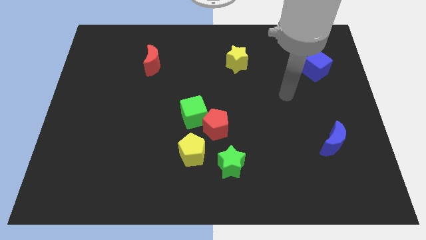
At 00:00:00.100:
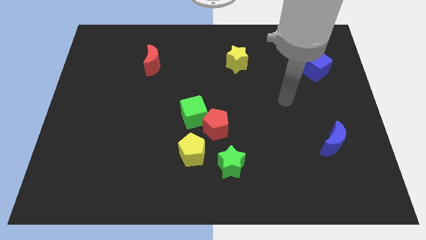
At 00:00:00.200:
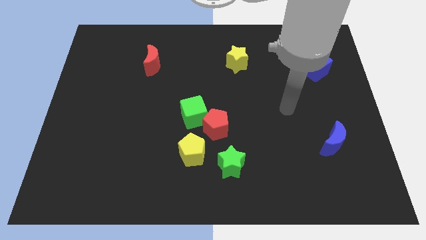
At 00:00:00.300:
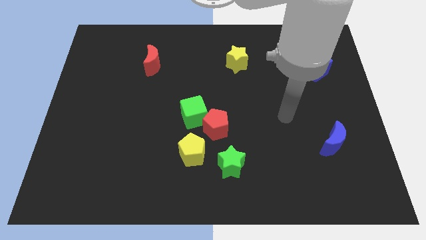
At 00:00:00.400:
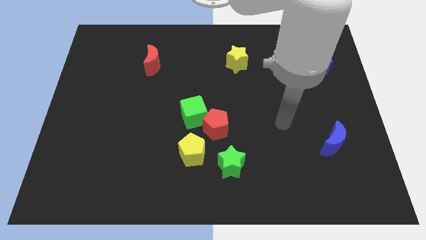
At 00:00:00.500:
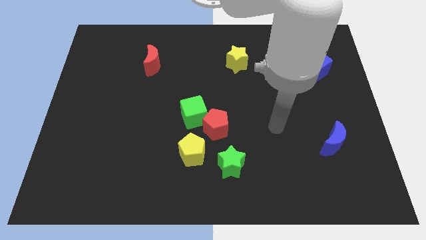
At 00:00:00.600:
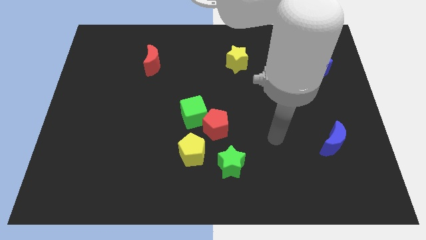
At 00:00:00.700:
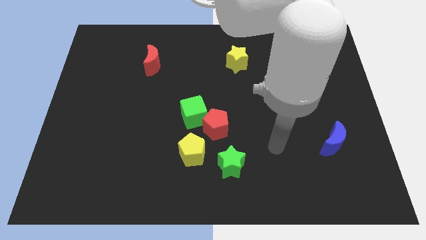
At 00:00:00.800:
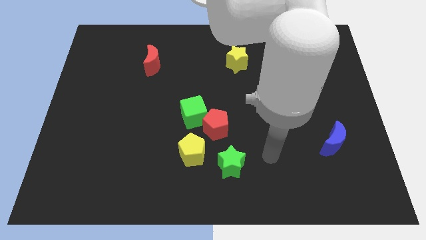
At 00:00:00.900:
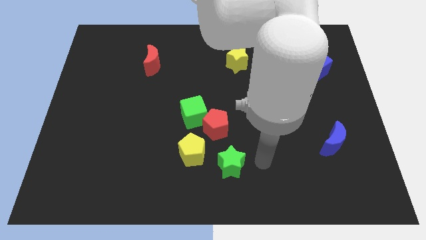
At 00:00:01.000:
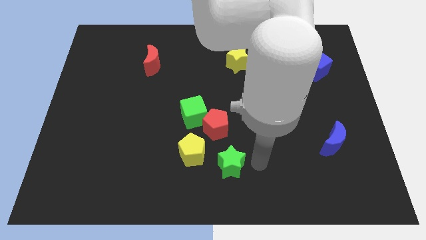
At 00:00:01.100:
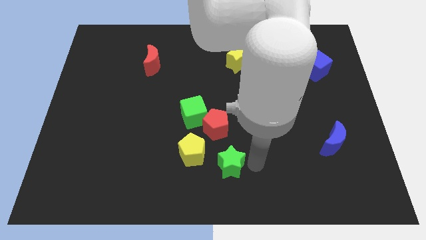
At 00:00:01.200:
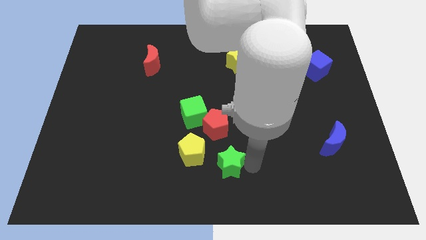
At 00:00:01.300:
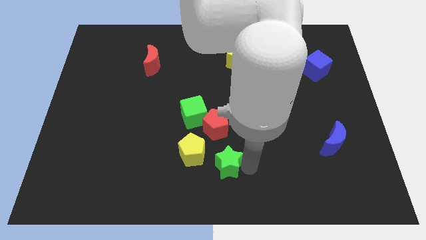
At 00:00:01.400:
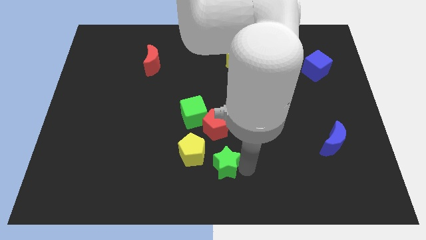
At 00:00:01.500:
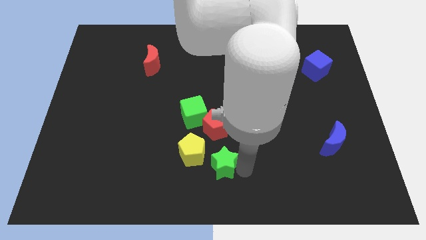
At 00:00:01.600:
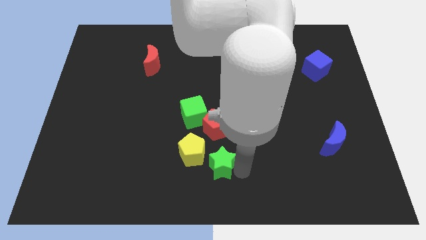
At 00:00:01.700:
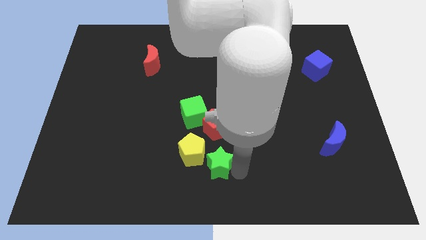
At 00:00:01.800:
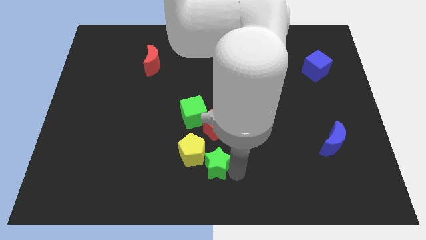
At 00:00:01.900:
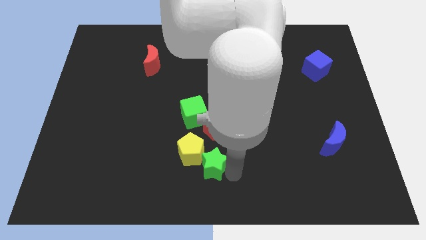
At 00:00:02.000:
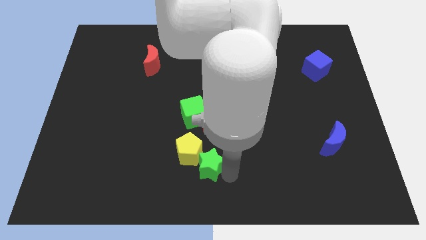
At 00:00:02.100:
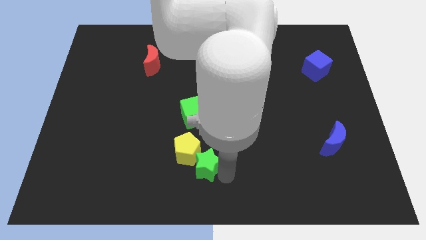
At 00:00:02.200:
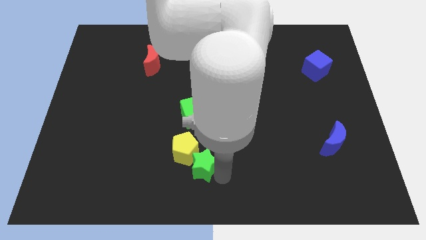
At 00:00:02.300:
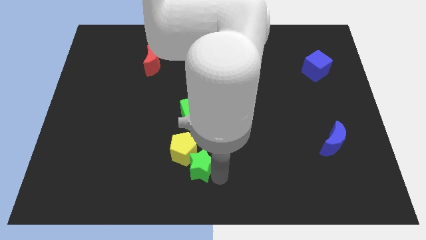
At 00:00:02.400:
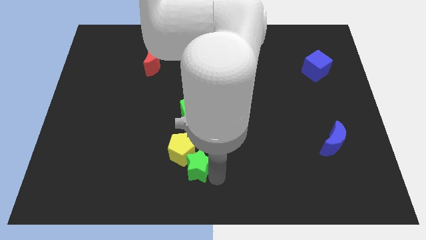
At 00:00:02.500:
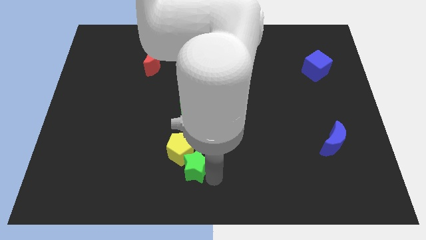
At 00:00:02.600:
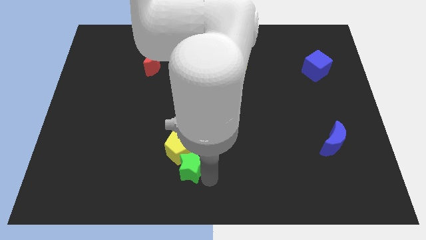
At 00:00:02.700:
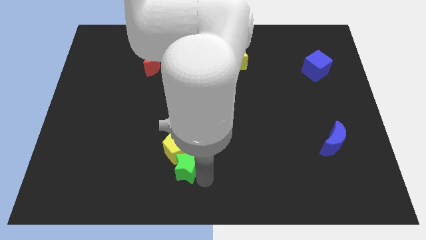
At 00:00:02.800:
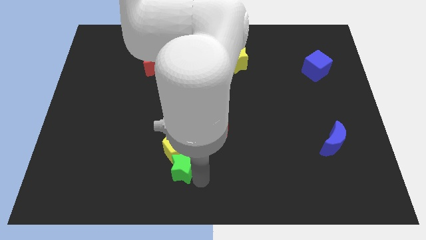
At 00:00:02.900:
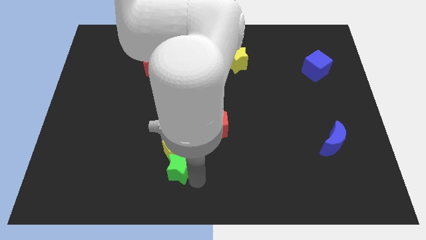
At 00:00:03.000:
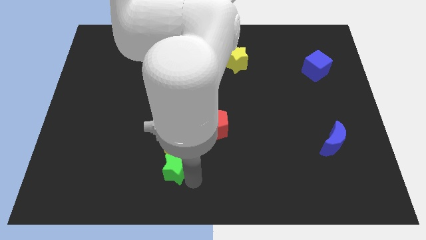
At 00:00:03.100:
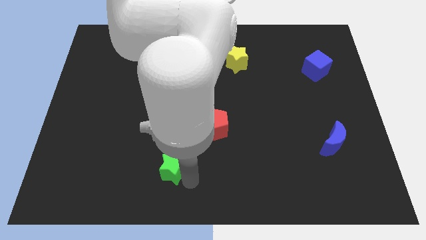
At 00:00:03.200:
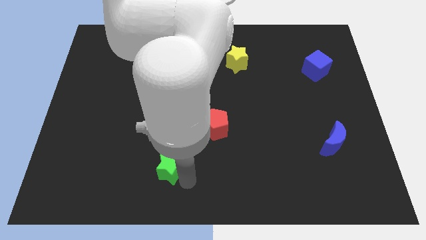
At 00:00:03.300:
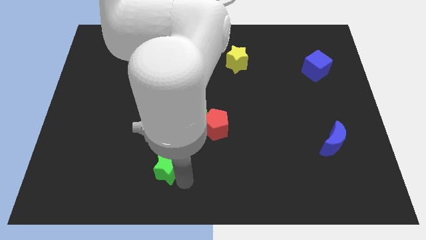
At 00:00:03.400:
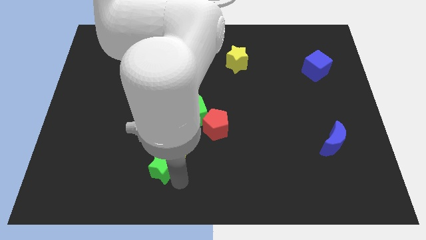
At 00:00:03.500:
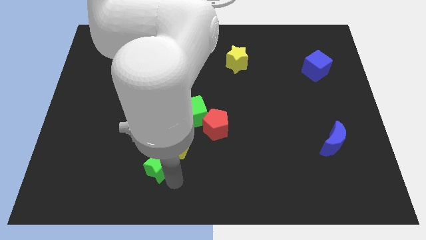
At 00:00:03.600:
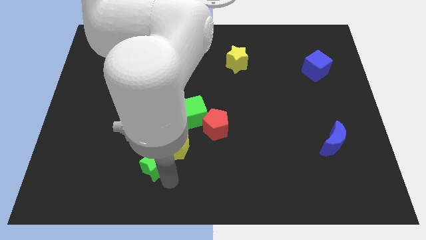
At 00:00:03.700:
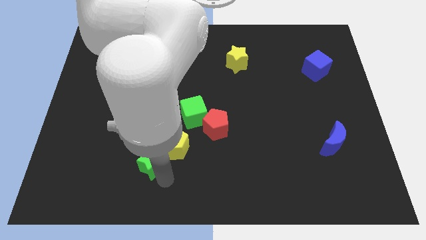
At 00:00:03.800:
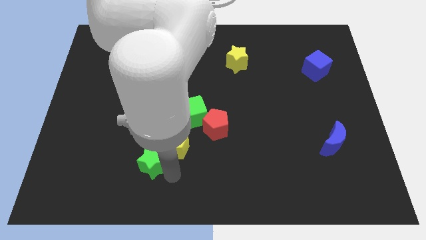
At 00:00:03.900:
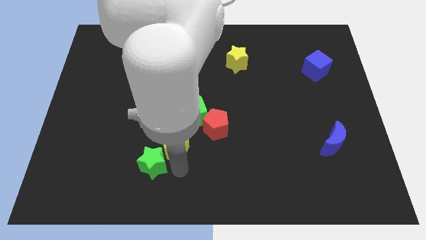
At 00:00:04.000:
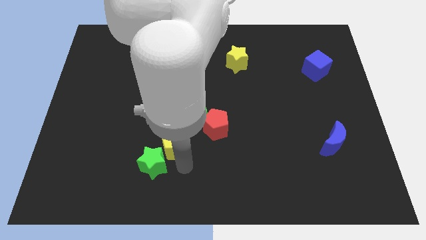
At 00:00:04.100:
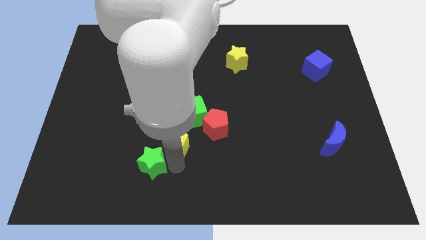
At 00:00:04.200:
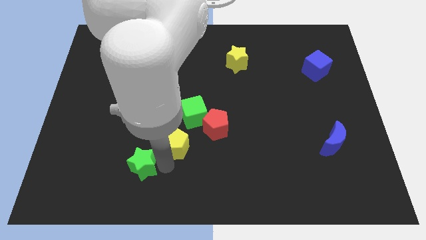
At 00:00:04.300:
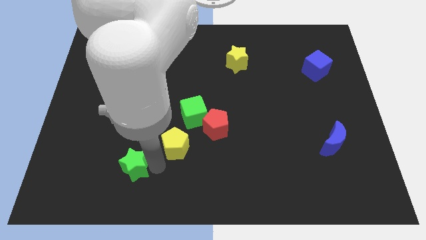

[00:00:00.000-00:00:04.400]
slide the green star to the left

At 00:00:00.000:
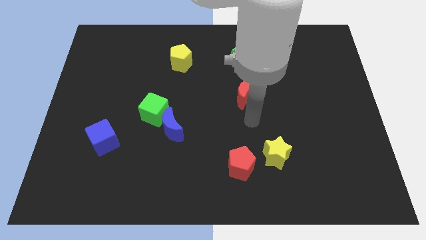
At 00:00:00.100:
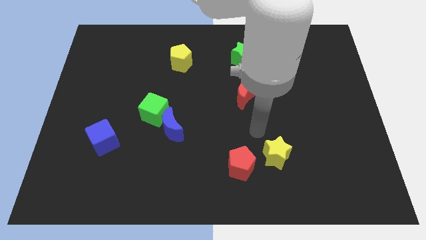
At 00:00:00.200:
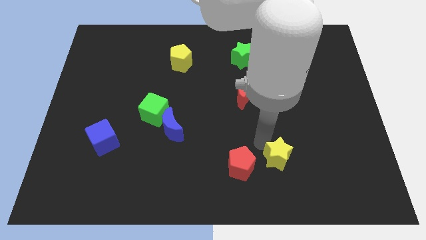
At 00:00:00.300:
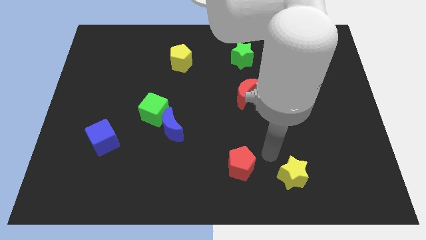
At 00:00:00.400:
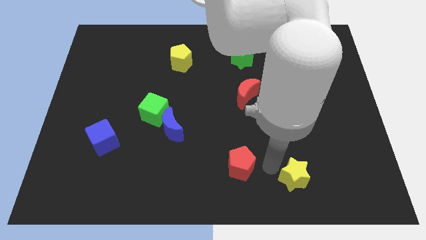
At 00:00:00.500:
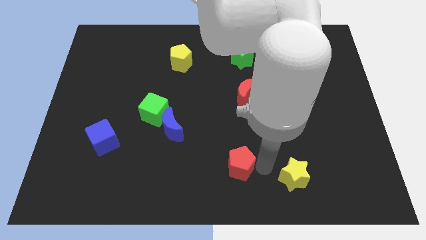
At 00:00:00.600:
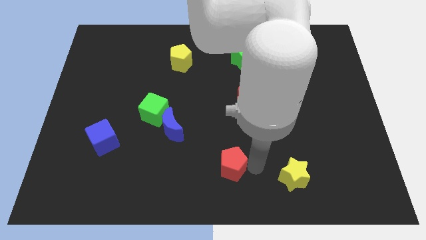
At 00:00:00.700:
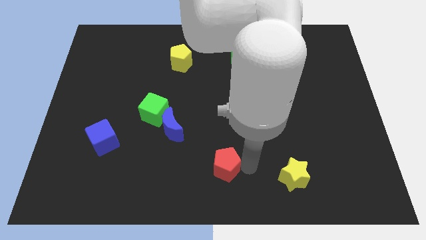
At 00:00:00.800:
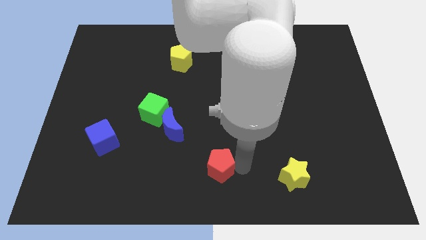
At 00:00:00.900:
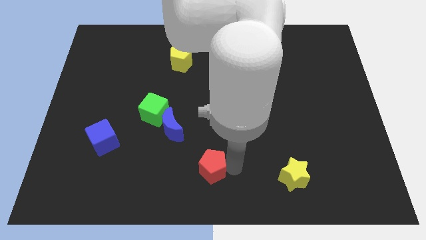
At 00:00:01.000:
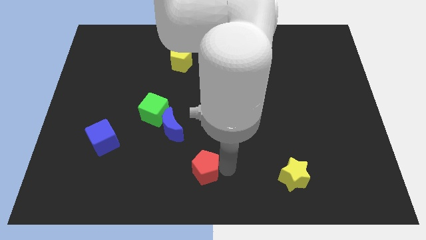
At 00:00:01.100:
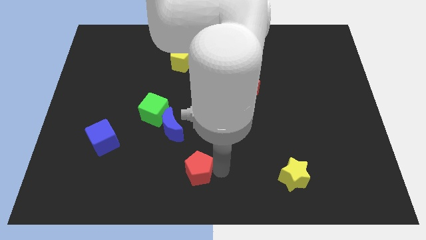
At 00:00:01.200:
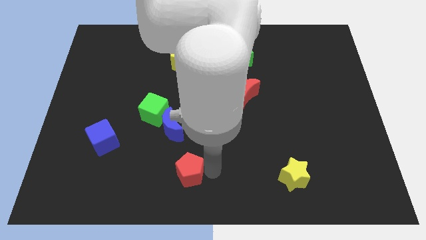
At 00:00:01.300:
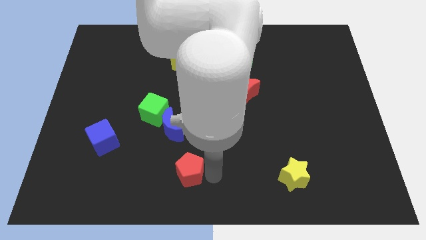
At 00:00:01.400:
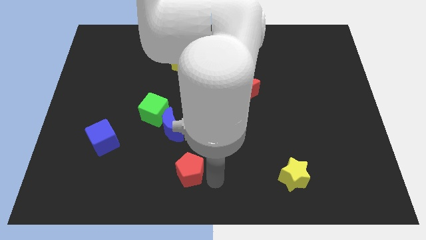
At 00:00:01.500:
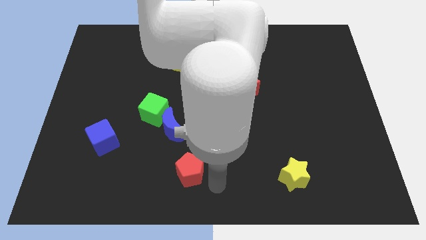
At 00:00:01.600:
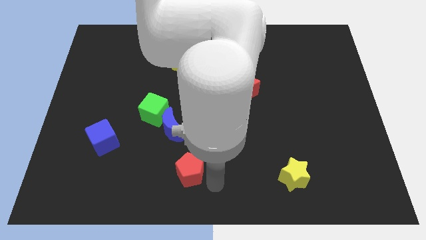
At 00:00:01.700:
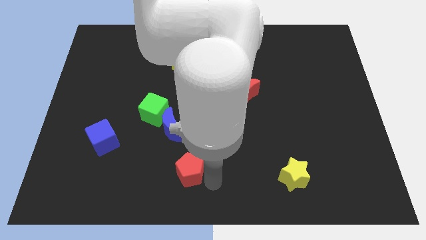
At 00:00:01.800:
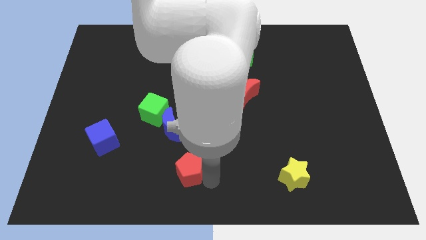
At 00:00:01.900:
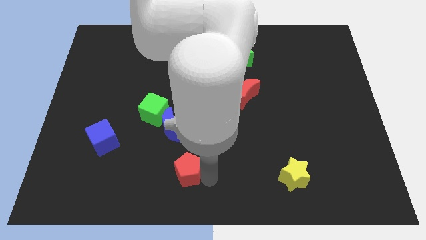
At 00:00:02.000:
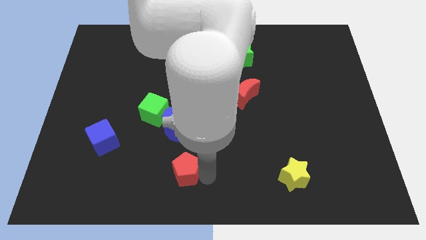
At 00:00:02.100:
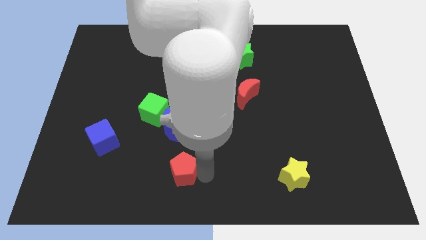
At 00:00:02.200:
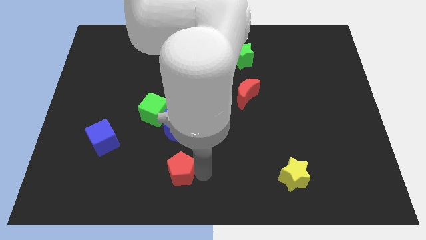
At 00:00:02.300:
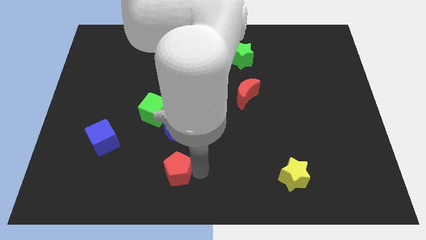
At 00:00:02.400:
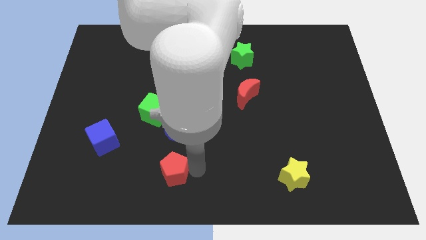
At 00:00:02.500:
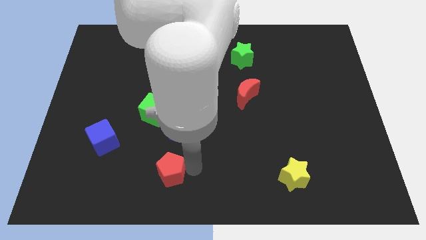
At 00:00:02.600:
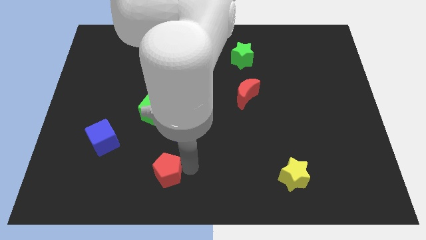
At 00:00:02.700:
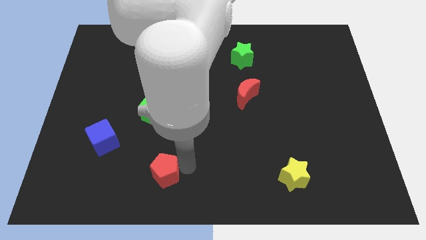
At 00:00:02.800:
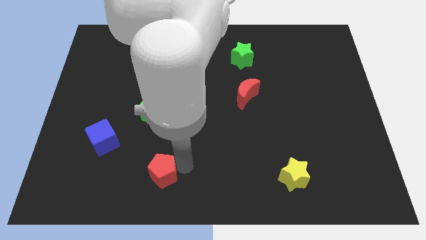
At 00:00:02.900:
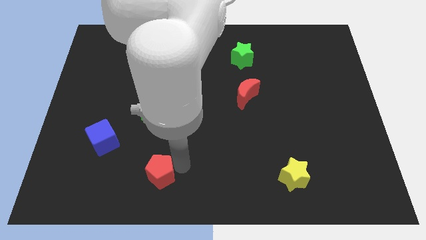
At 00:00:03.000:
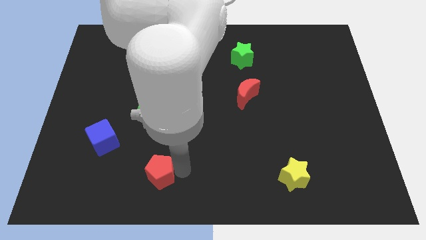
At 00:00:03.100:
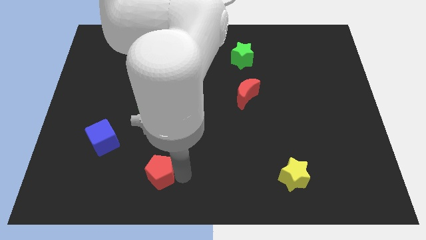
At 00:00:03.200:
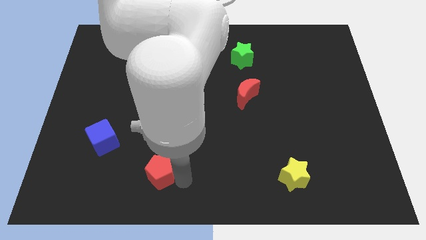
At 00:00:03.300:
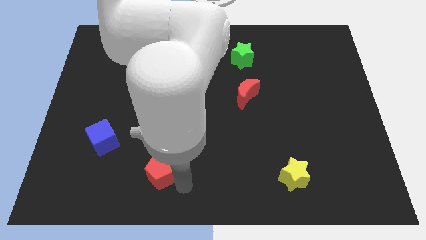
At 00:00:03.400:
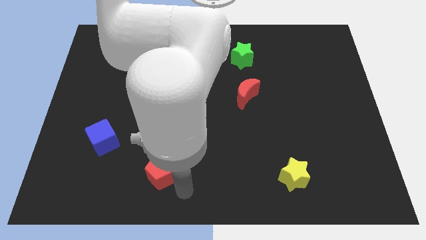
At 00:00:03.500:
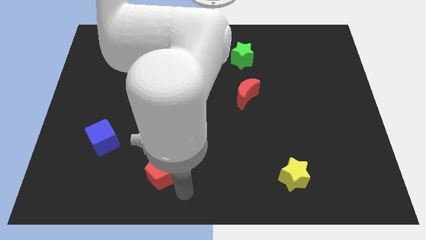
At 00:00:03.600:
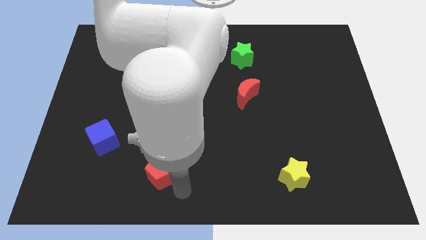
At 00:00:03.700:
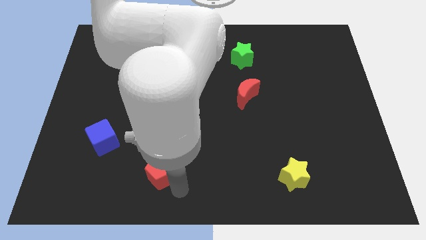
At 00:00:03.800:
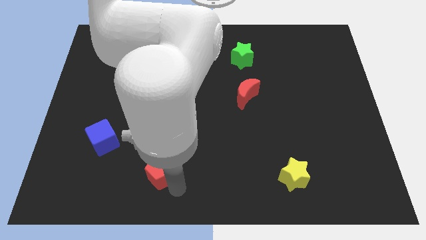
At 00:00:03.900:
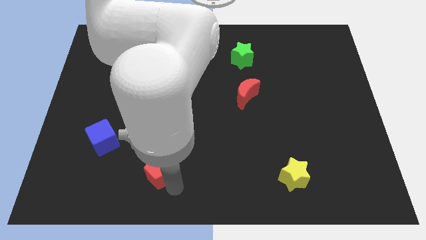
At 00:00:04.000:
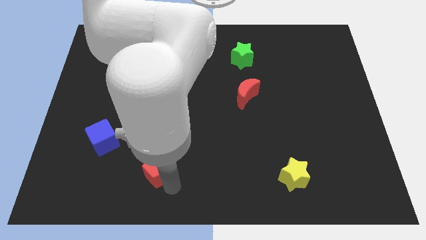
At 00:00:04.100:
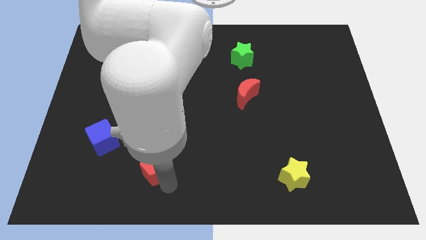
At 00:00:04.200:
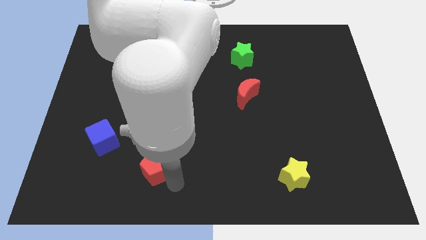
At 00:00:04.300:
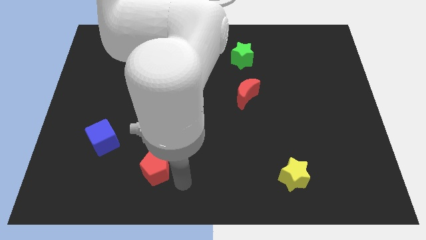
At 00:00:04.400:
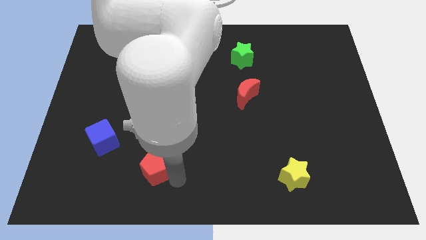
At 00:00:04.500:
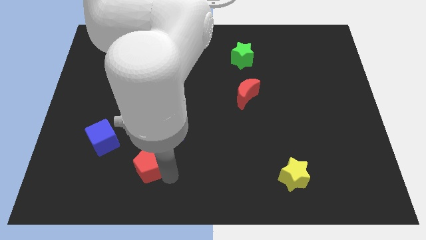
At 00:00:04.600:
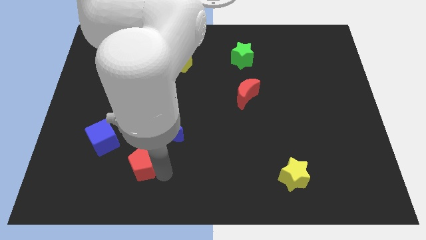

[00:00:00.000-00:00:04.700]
move the red pentagon to the left
